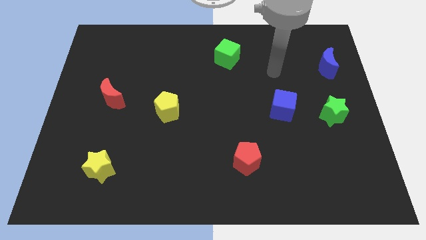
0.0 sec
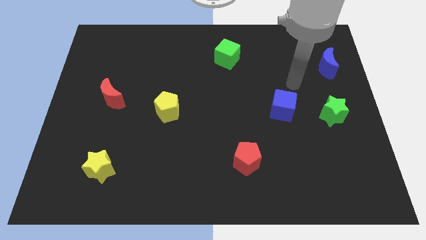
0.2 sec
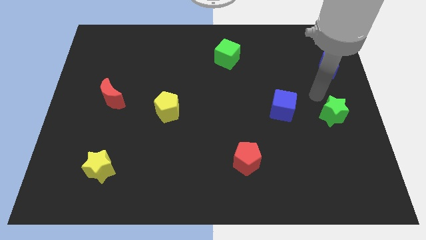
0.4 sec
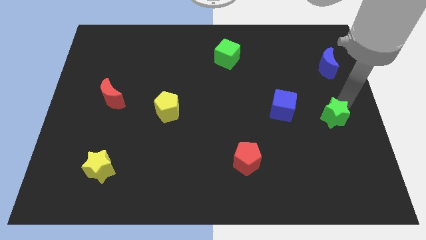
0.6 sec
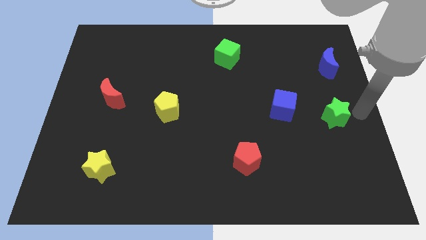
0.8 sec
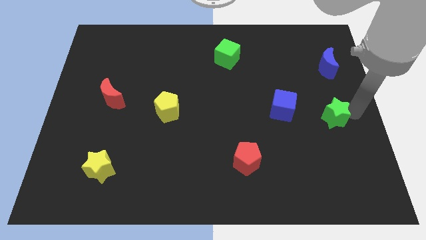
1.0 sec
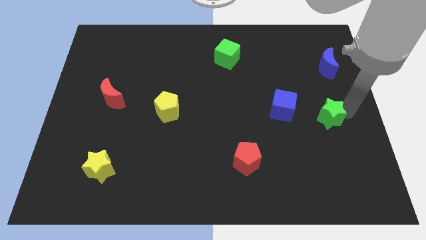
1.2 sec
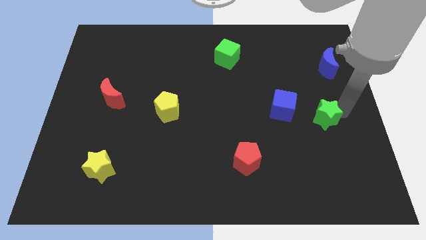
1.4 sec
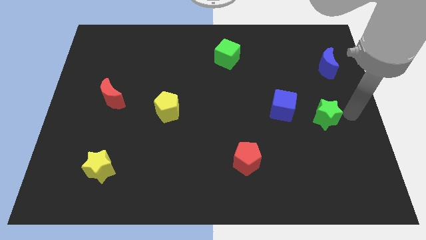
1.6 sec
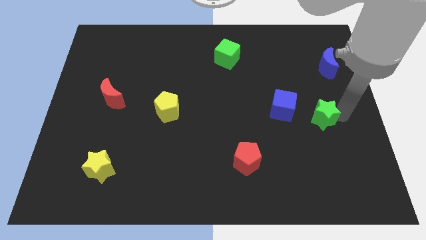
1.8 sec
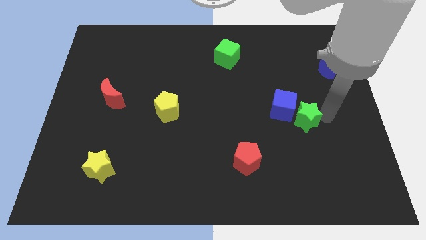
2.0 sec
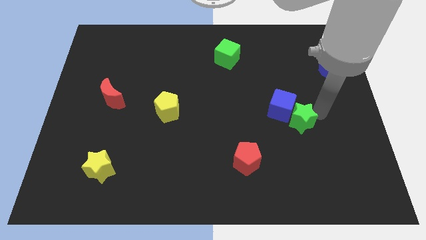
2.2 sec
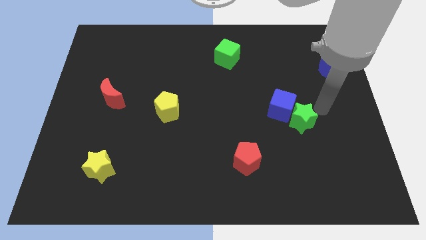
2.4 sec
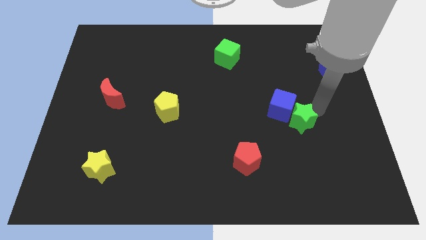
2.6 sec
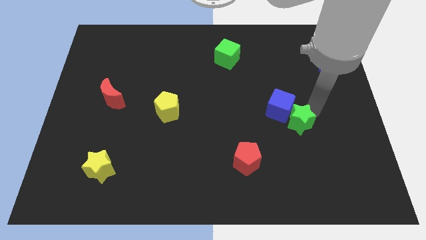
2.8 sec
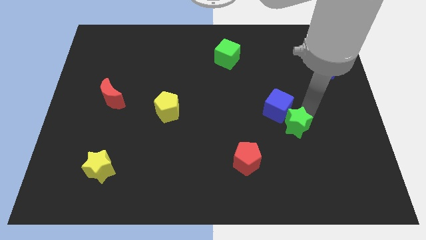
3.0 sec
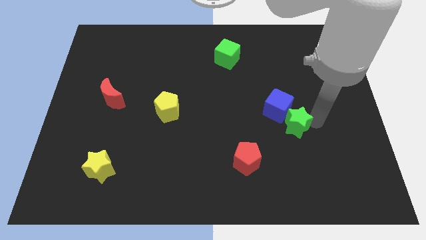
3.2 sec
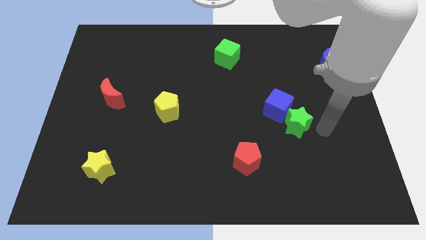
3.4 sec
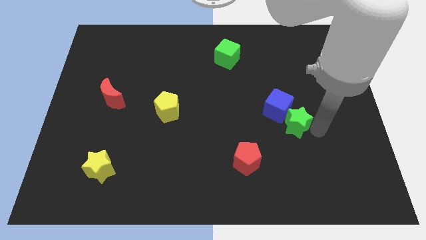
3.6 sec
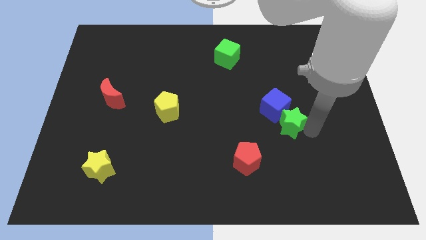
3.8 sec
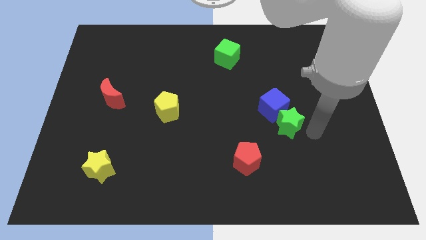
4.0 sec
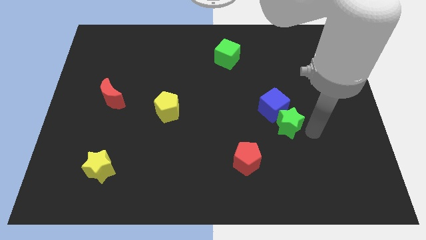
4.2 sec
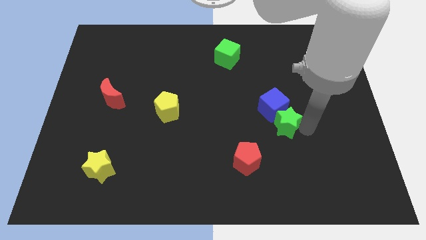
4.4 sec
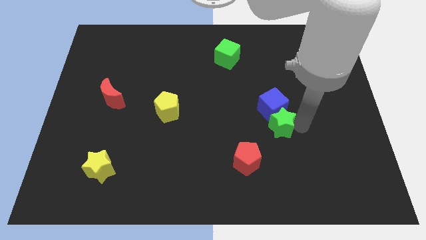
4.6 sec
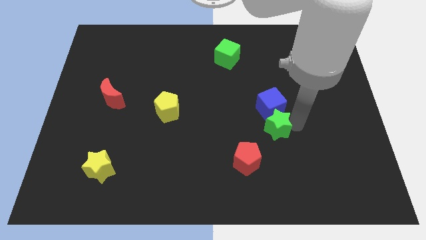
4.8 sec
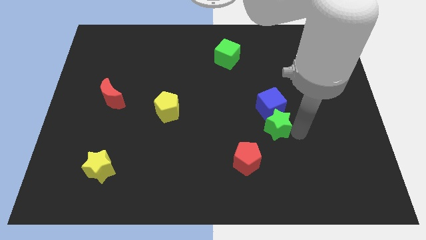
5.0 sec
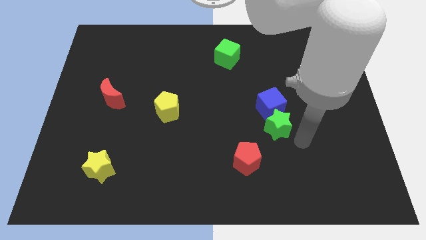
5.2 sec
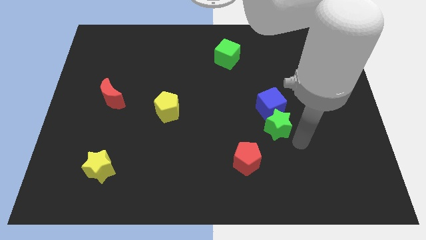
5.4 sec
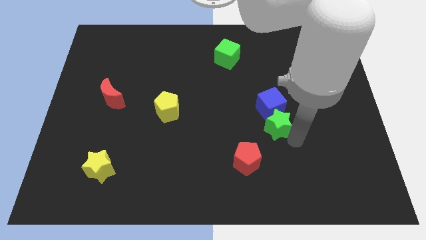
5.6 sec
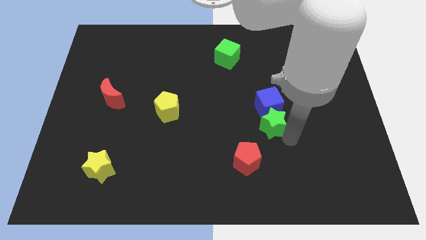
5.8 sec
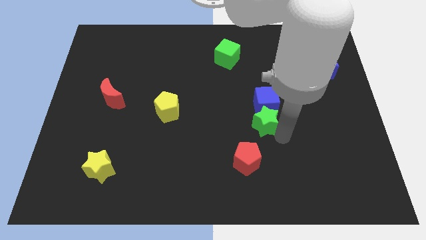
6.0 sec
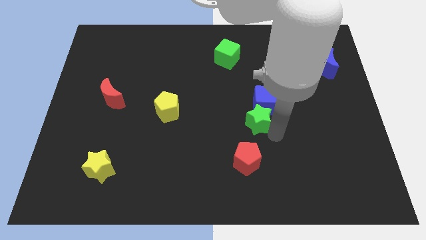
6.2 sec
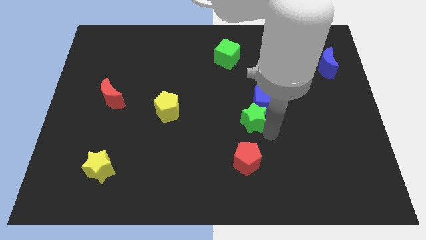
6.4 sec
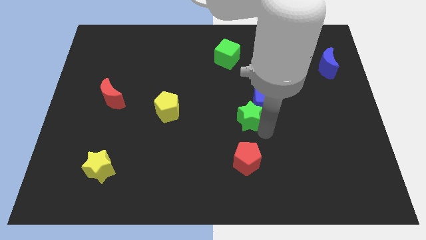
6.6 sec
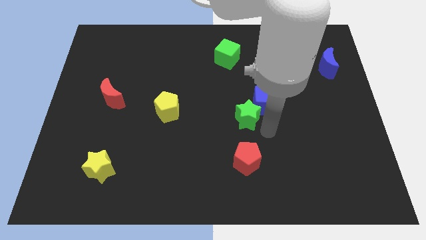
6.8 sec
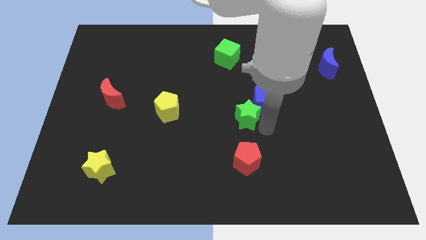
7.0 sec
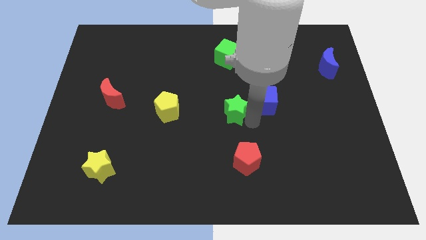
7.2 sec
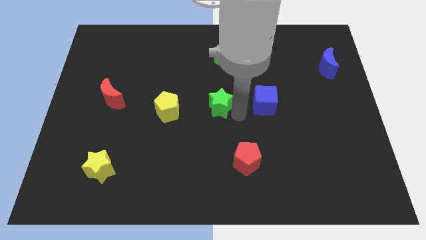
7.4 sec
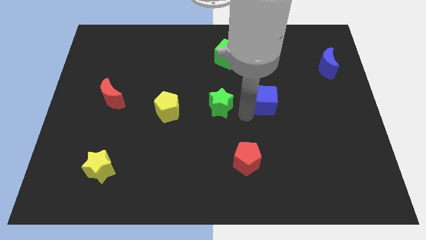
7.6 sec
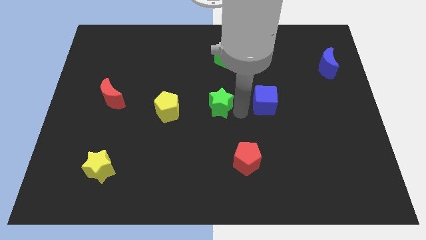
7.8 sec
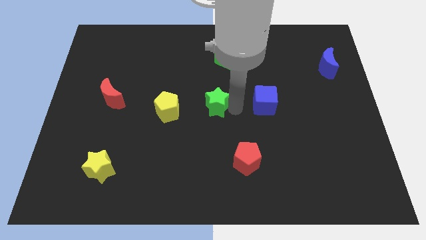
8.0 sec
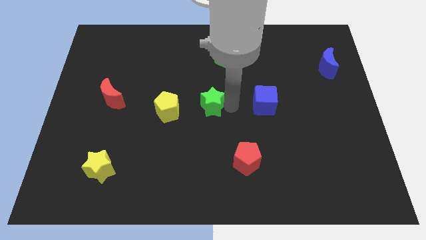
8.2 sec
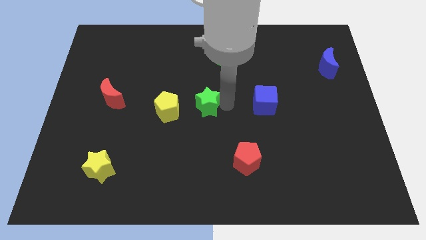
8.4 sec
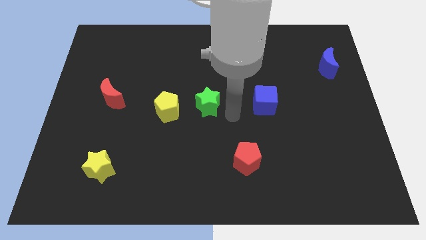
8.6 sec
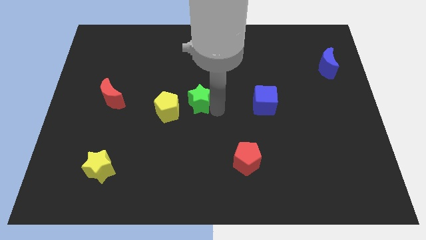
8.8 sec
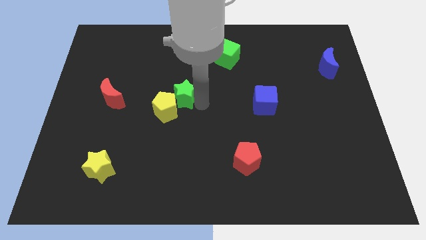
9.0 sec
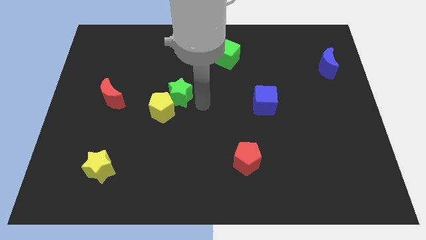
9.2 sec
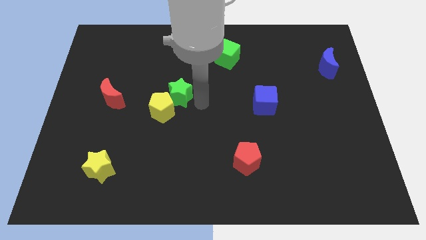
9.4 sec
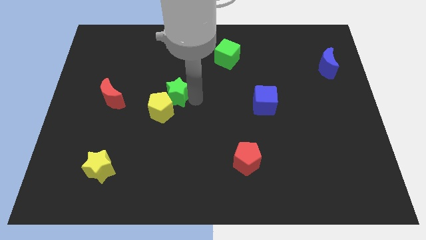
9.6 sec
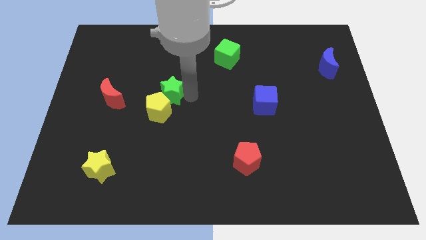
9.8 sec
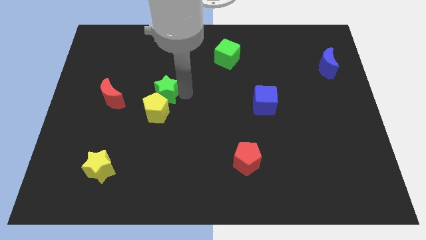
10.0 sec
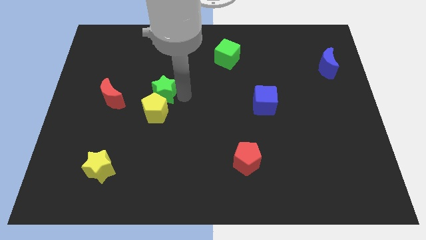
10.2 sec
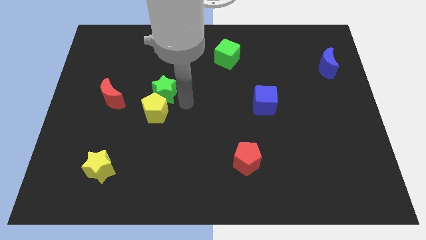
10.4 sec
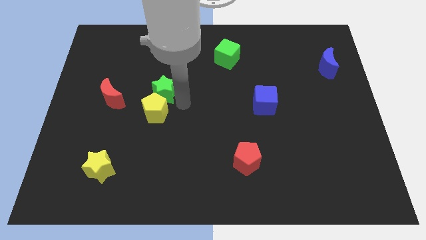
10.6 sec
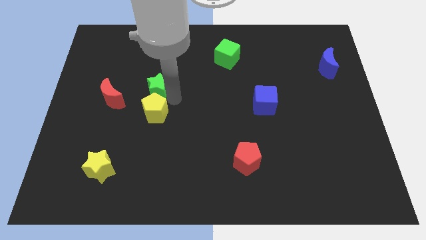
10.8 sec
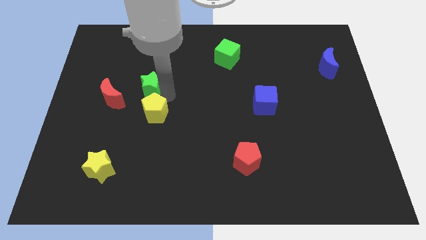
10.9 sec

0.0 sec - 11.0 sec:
slide the green star diagonally up and to the right of the red moon
